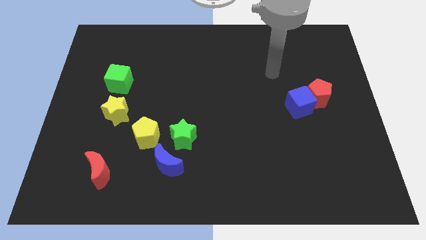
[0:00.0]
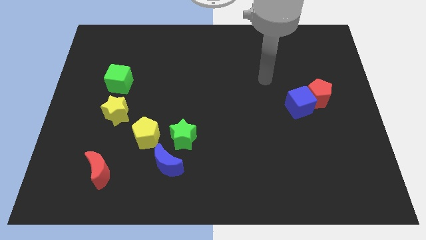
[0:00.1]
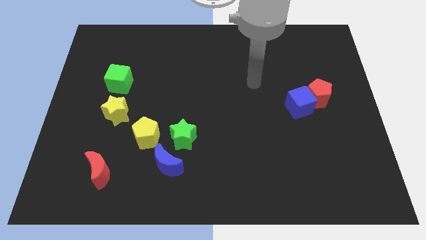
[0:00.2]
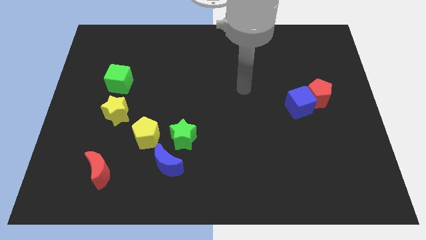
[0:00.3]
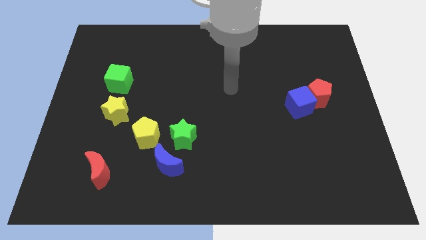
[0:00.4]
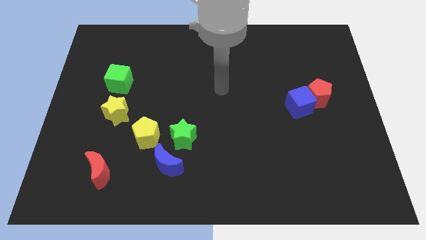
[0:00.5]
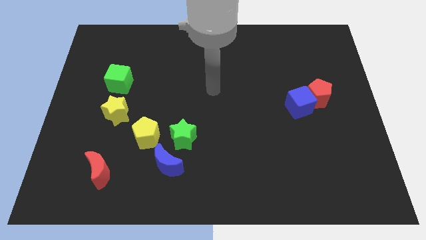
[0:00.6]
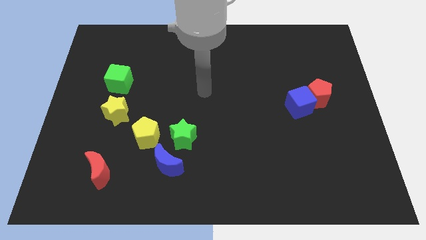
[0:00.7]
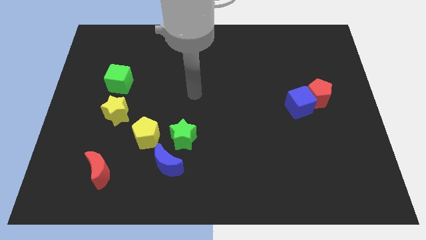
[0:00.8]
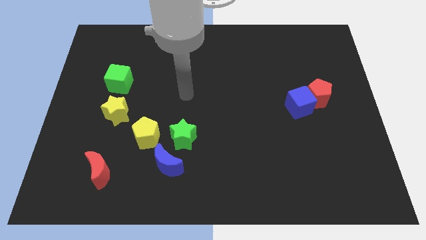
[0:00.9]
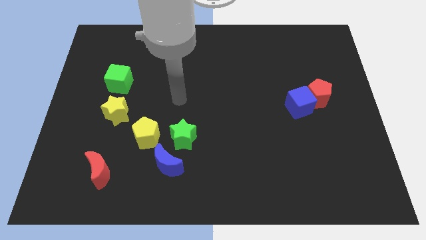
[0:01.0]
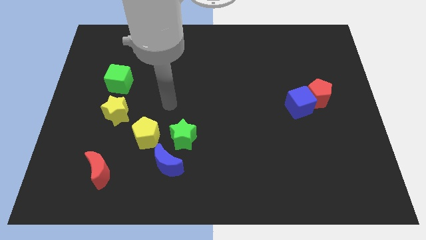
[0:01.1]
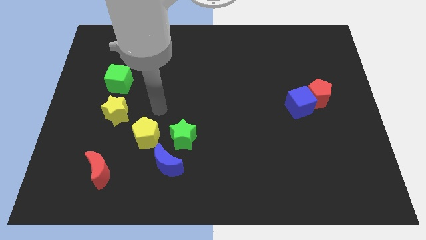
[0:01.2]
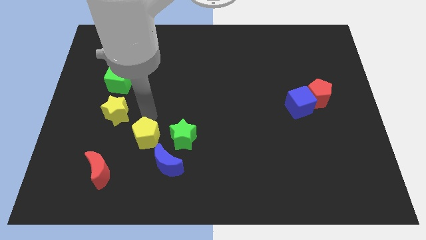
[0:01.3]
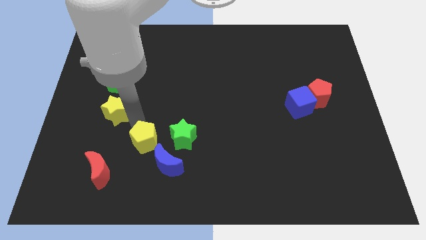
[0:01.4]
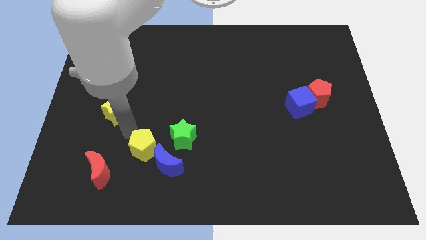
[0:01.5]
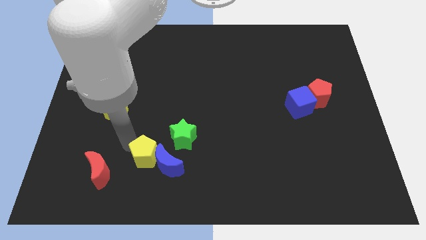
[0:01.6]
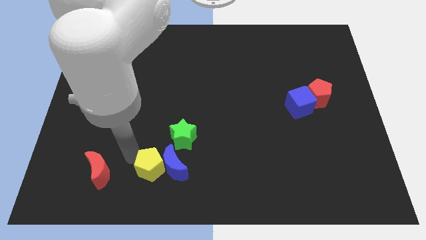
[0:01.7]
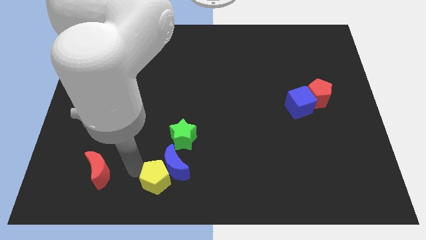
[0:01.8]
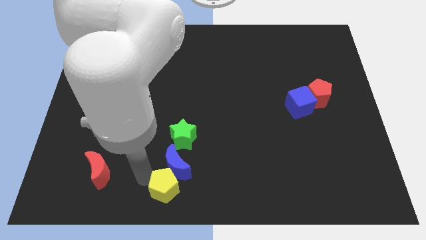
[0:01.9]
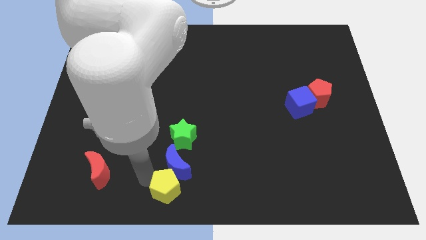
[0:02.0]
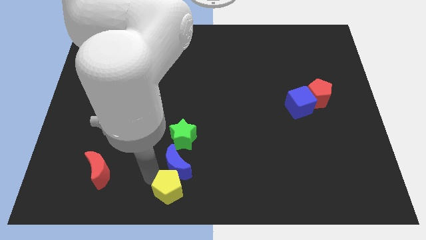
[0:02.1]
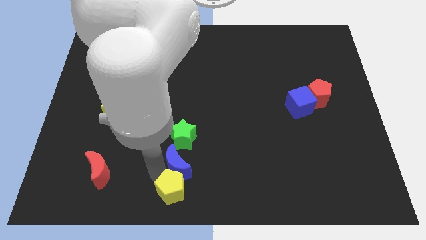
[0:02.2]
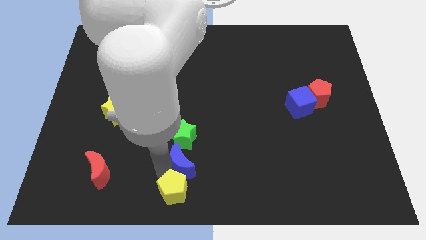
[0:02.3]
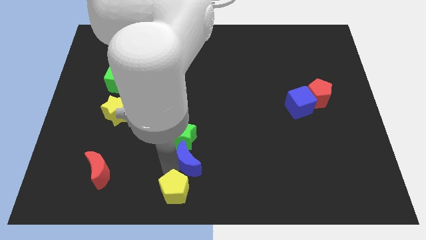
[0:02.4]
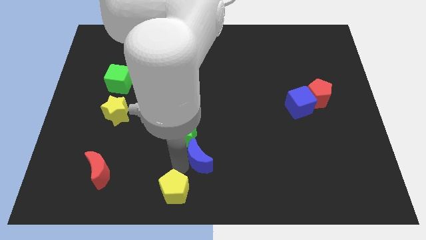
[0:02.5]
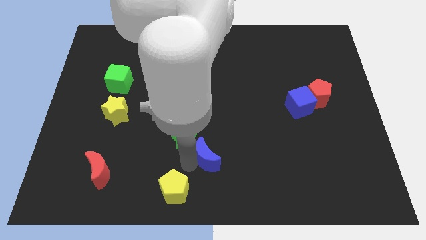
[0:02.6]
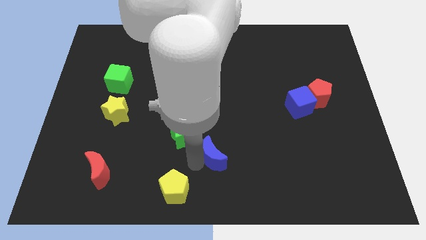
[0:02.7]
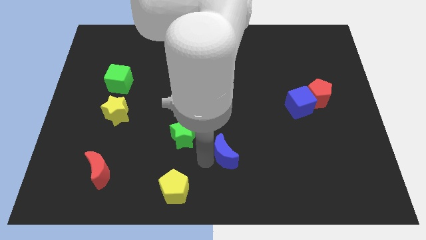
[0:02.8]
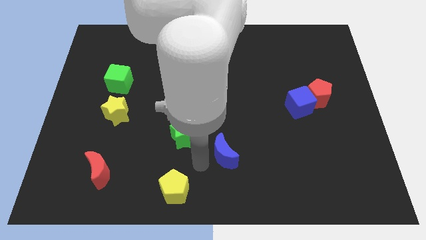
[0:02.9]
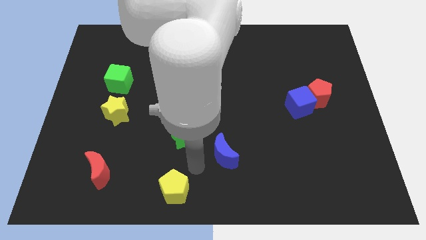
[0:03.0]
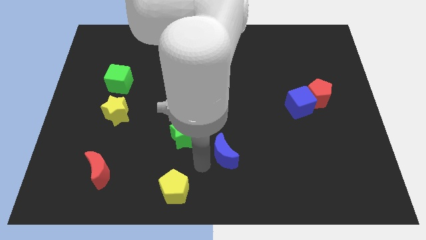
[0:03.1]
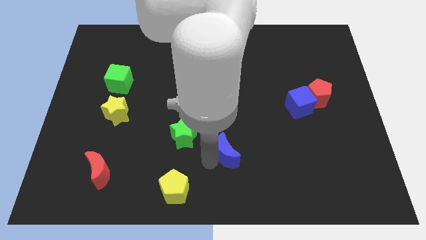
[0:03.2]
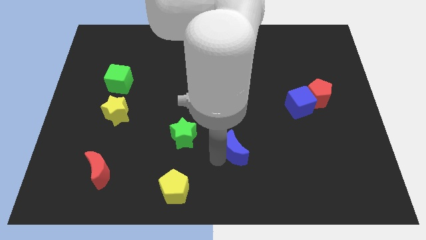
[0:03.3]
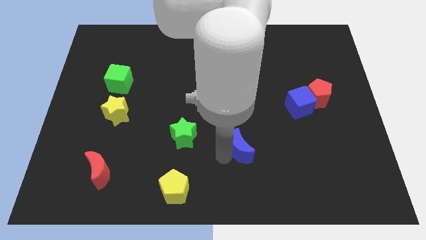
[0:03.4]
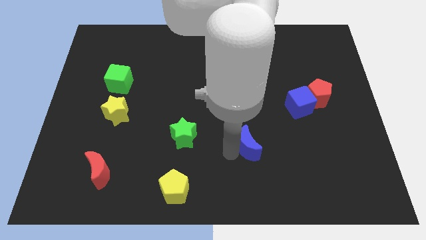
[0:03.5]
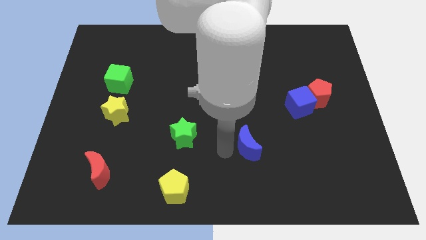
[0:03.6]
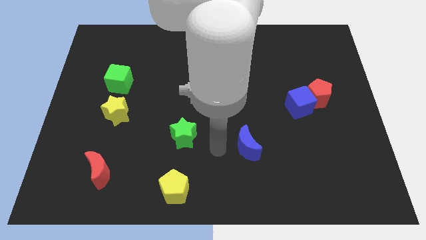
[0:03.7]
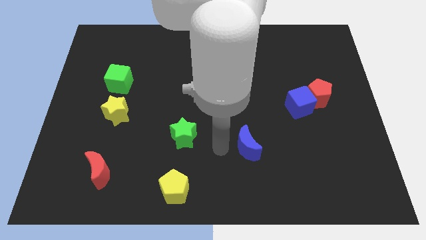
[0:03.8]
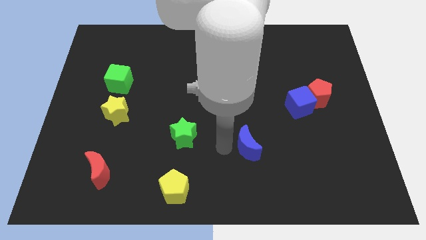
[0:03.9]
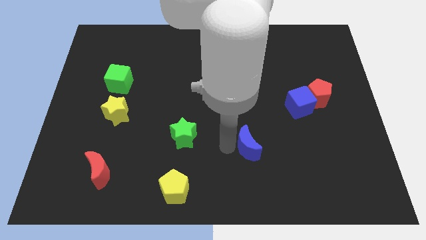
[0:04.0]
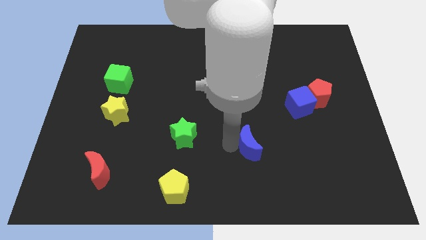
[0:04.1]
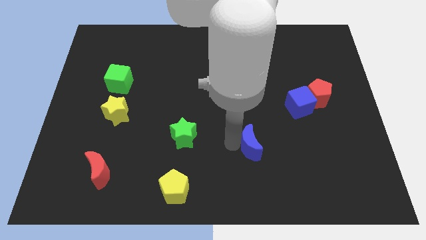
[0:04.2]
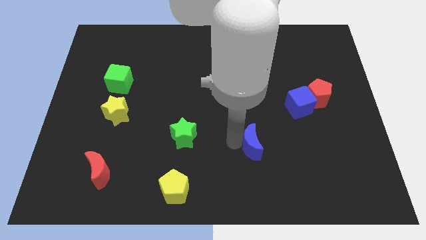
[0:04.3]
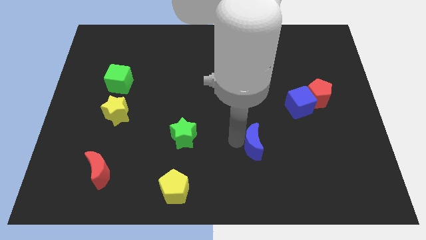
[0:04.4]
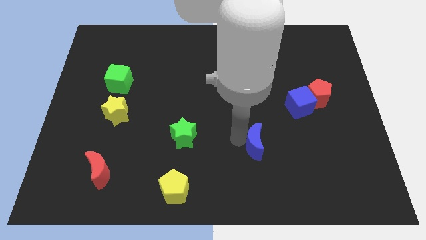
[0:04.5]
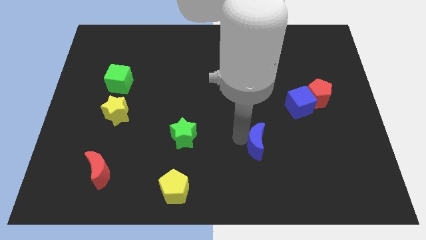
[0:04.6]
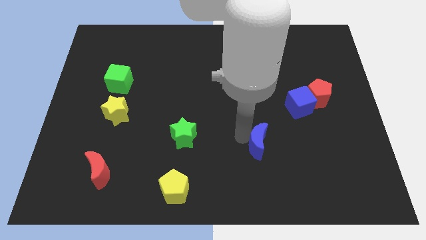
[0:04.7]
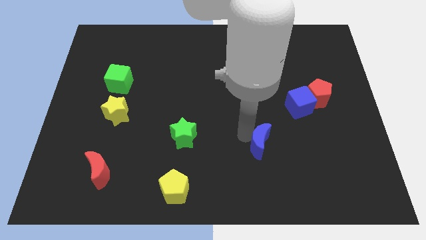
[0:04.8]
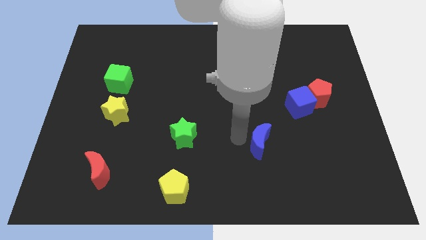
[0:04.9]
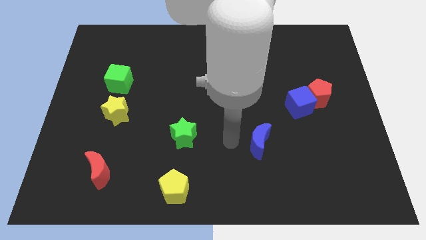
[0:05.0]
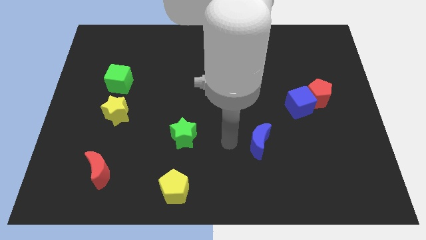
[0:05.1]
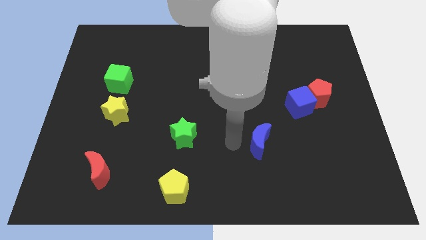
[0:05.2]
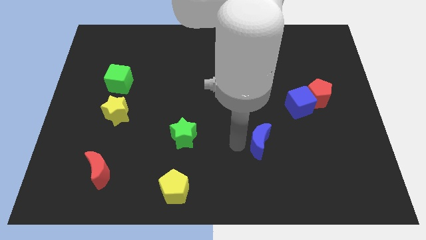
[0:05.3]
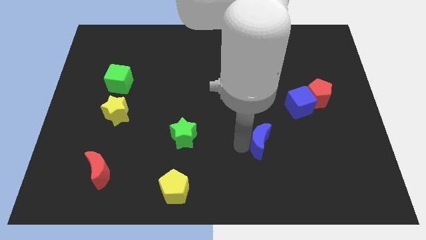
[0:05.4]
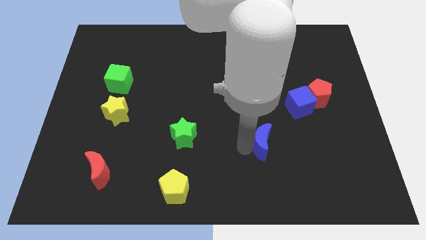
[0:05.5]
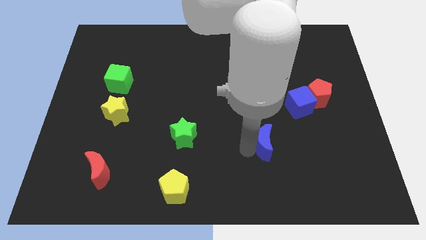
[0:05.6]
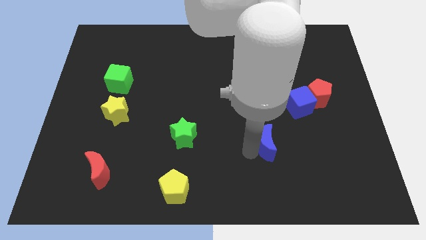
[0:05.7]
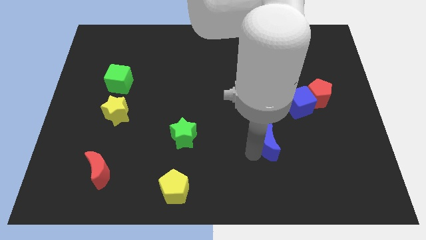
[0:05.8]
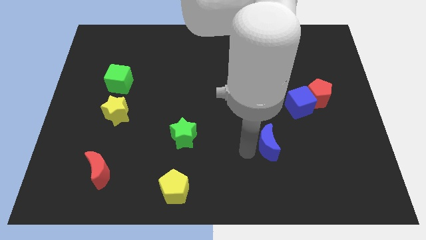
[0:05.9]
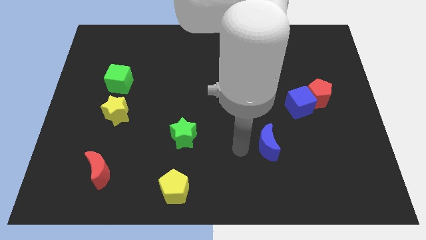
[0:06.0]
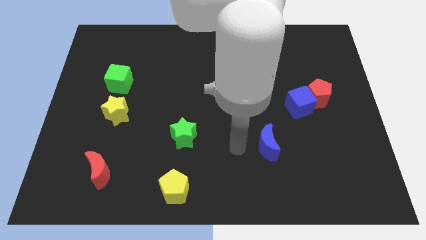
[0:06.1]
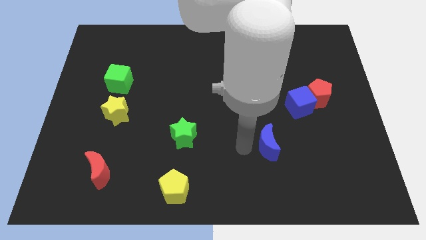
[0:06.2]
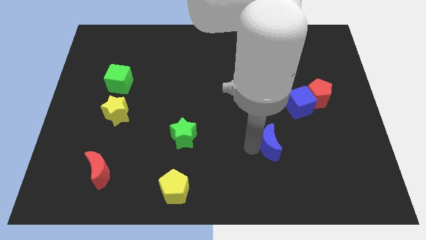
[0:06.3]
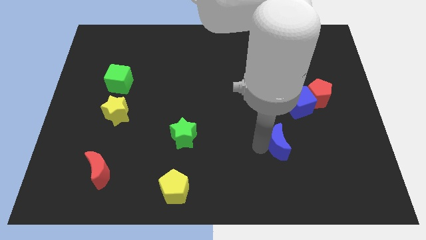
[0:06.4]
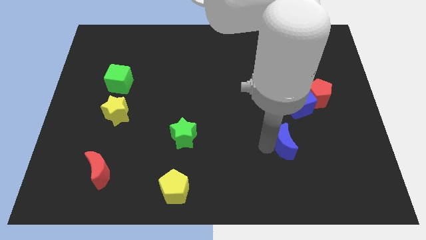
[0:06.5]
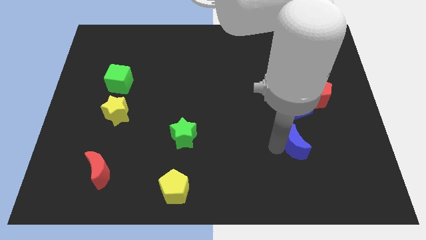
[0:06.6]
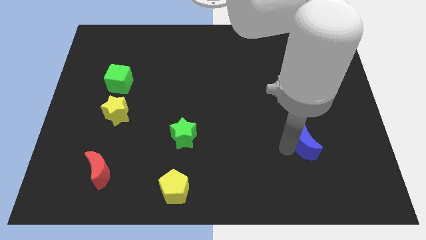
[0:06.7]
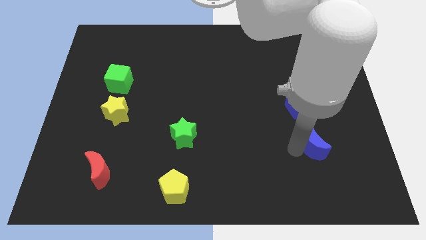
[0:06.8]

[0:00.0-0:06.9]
put the blue moon to the bottom of the red pentagon
